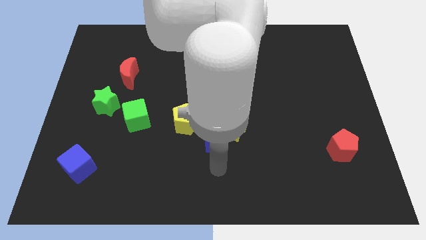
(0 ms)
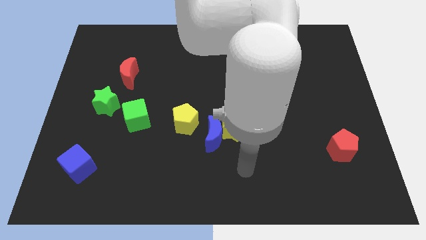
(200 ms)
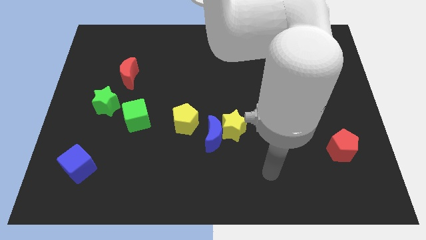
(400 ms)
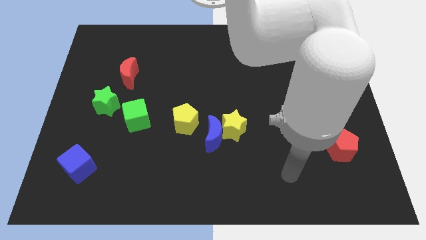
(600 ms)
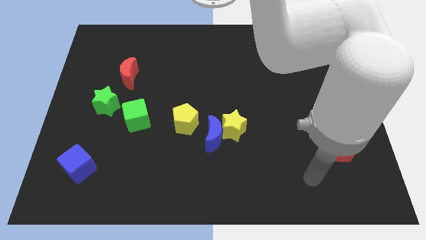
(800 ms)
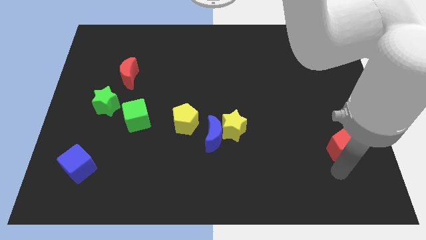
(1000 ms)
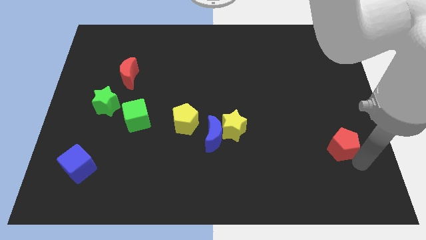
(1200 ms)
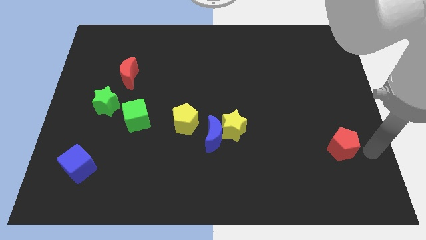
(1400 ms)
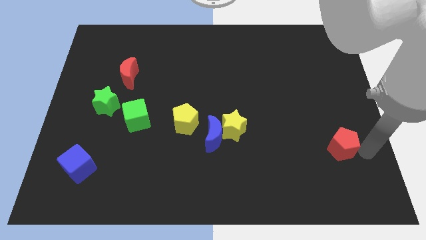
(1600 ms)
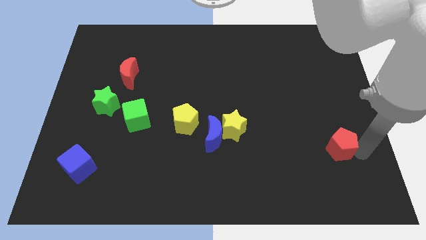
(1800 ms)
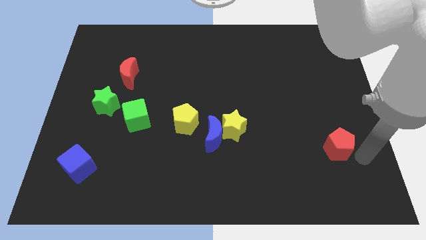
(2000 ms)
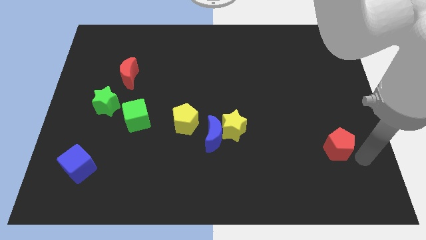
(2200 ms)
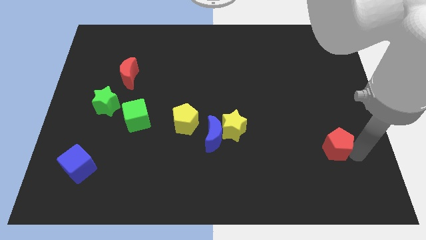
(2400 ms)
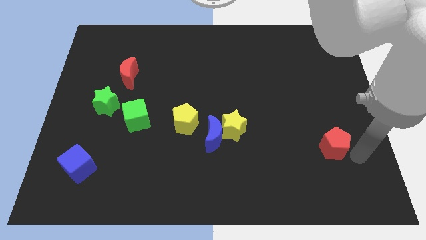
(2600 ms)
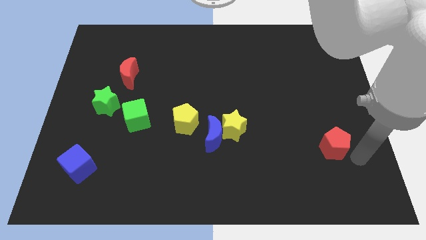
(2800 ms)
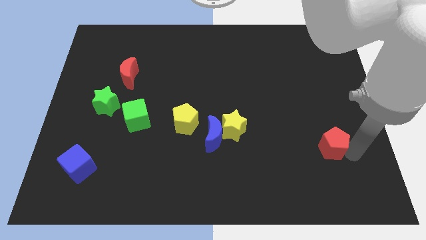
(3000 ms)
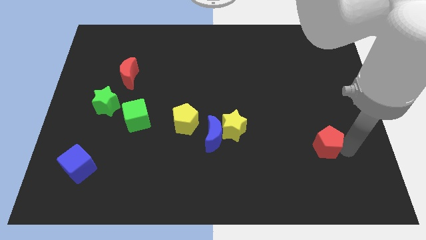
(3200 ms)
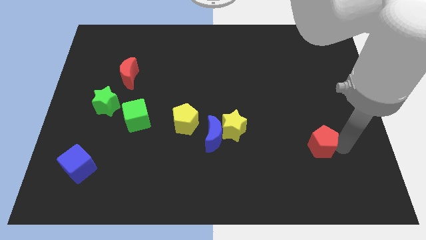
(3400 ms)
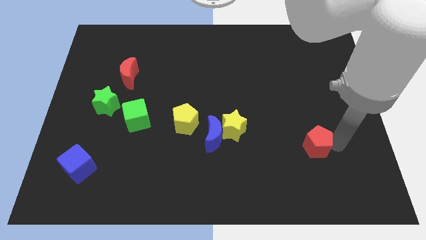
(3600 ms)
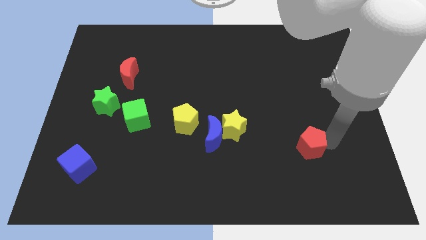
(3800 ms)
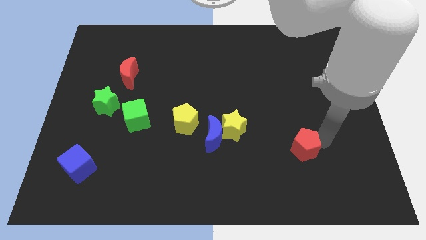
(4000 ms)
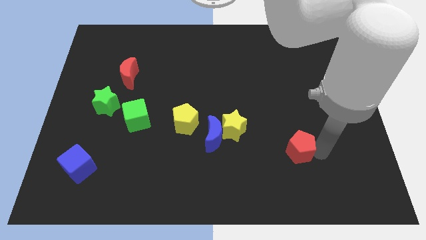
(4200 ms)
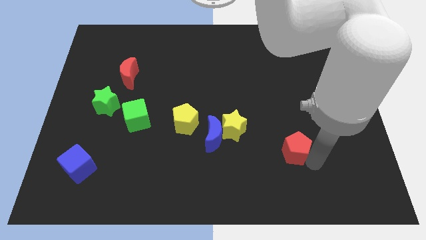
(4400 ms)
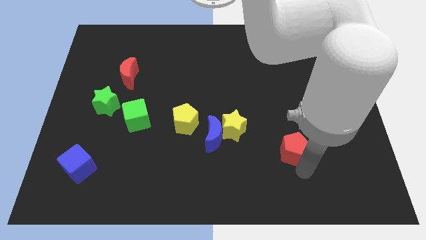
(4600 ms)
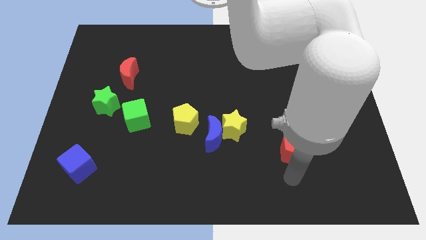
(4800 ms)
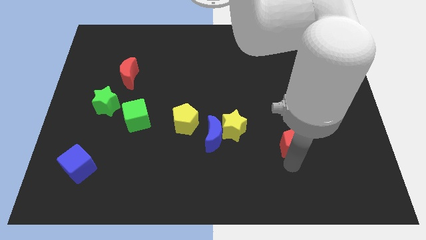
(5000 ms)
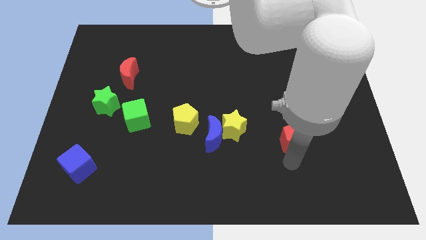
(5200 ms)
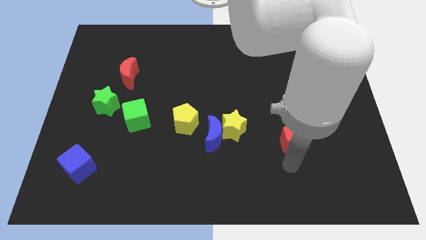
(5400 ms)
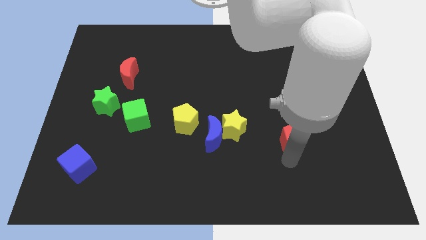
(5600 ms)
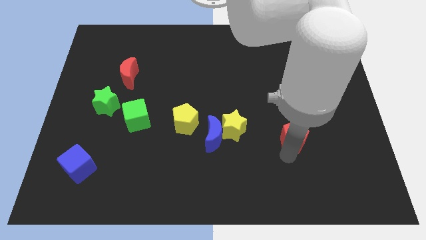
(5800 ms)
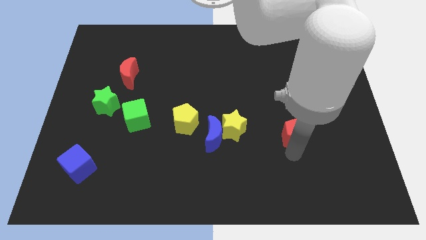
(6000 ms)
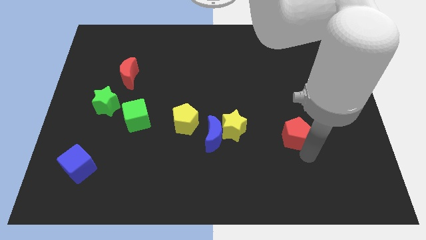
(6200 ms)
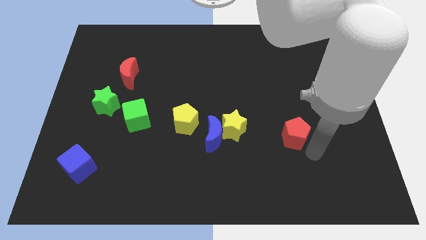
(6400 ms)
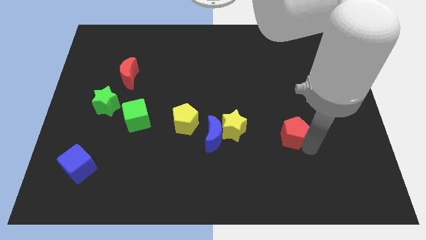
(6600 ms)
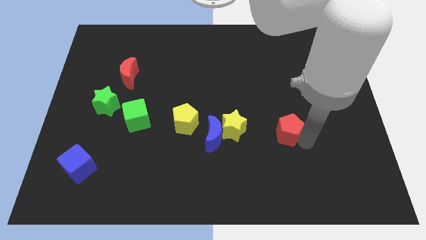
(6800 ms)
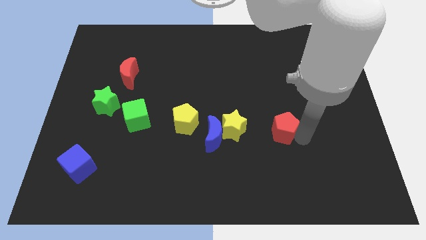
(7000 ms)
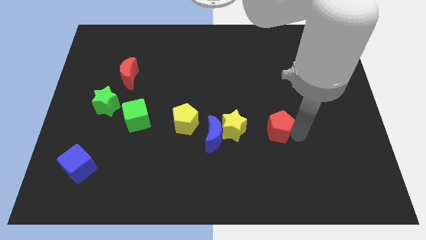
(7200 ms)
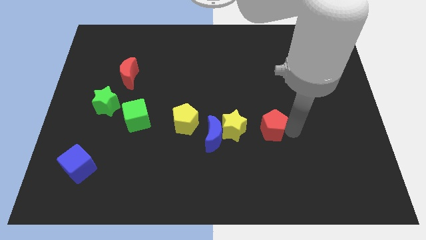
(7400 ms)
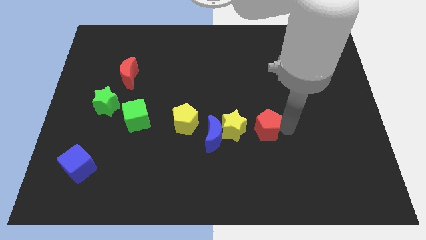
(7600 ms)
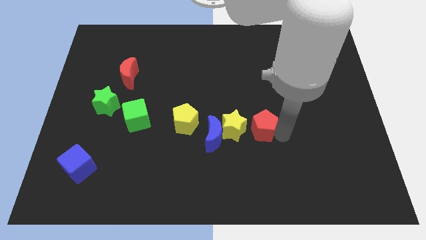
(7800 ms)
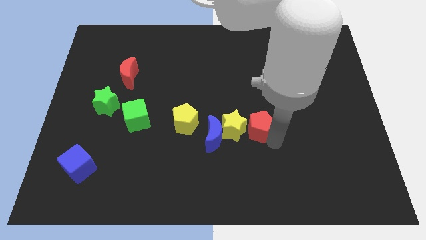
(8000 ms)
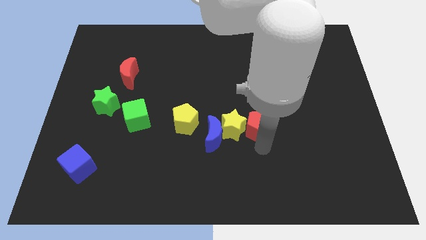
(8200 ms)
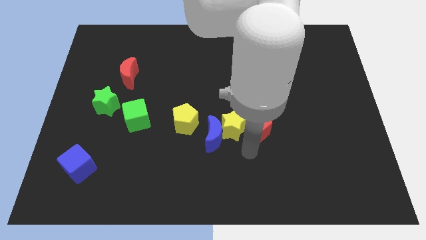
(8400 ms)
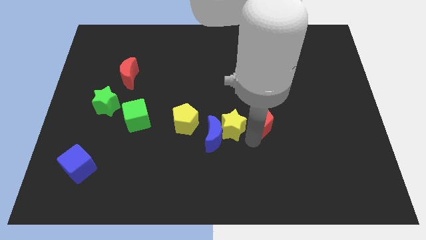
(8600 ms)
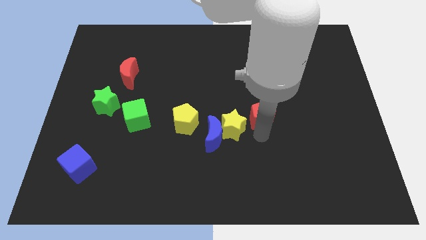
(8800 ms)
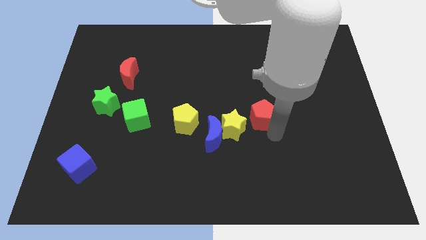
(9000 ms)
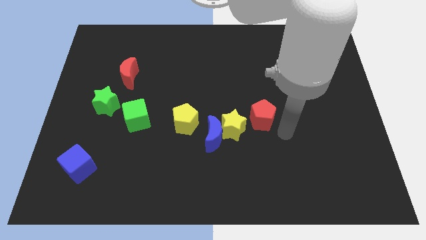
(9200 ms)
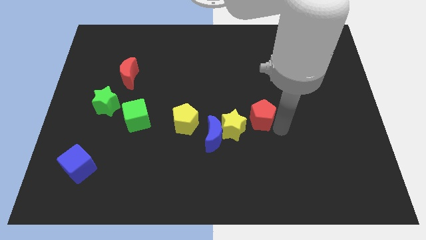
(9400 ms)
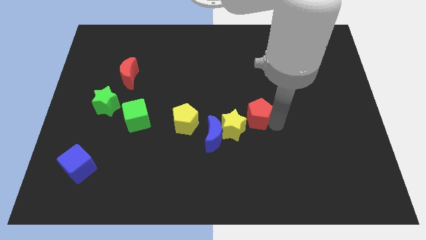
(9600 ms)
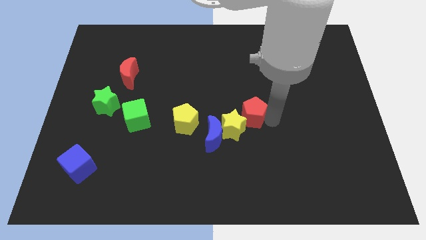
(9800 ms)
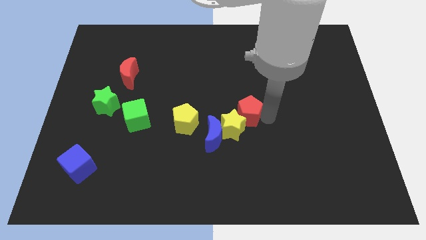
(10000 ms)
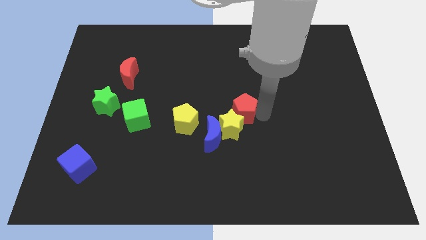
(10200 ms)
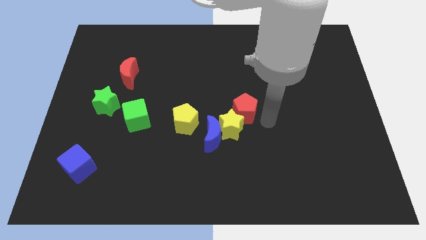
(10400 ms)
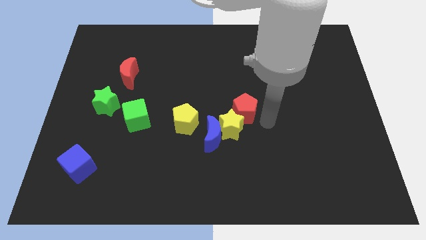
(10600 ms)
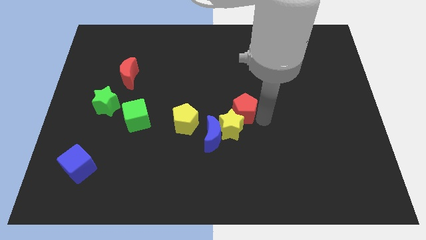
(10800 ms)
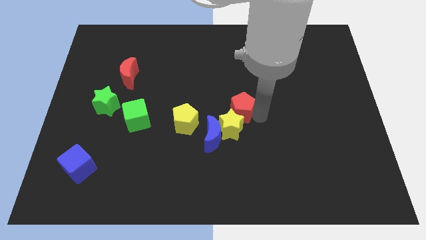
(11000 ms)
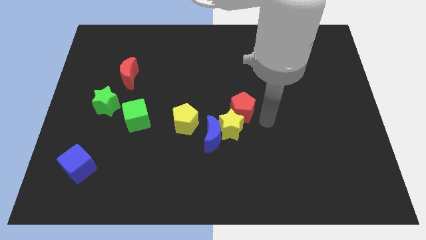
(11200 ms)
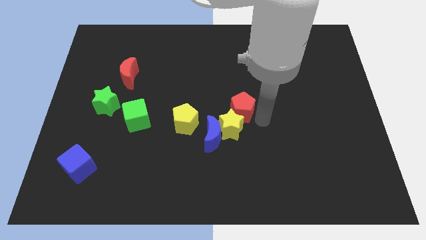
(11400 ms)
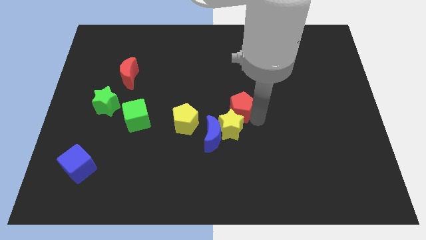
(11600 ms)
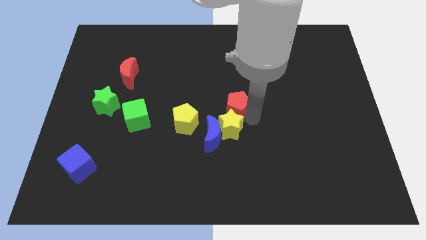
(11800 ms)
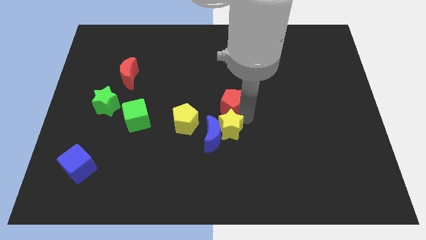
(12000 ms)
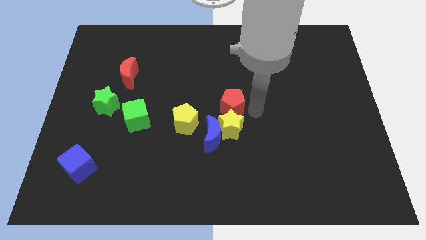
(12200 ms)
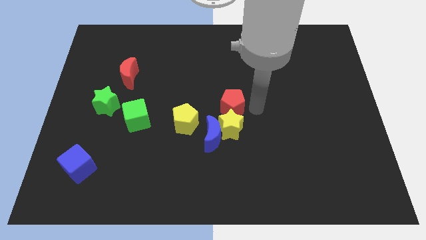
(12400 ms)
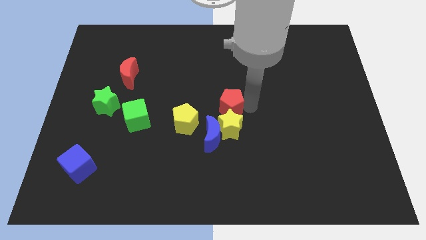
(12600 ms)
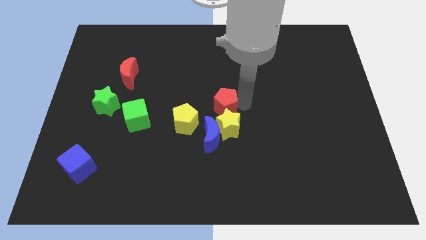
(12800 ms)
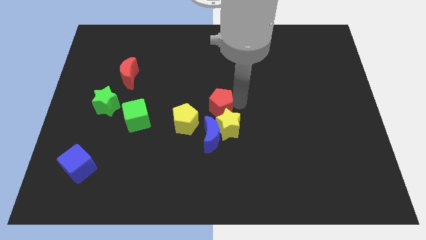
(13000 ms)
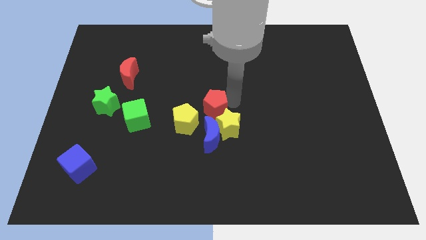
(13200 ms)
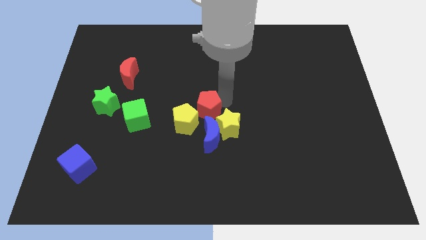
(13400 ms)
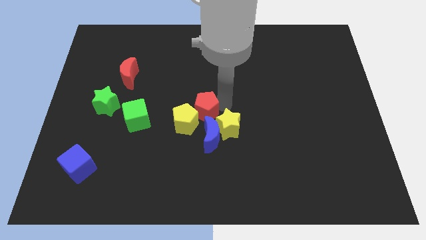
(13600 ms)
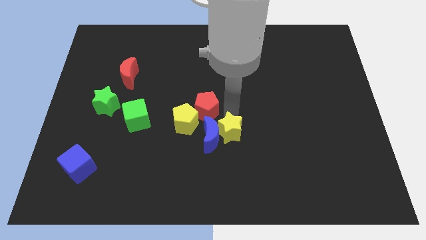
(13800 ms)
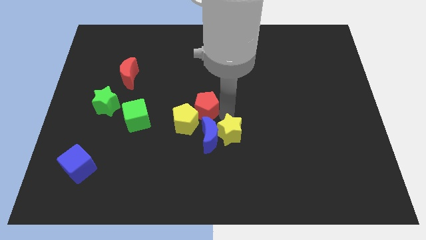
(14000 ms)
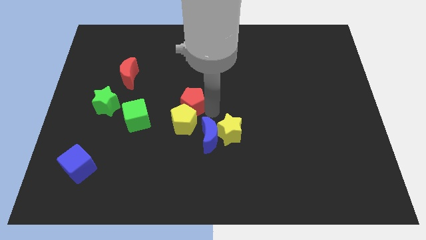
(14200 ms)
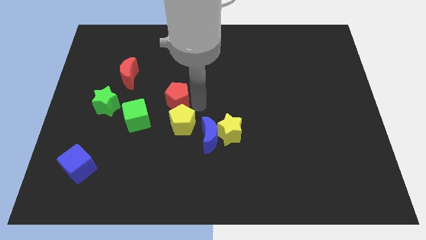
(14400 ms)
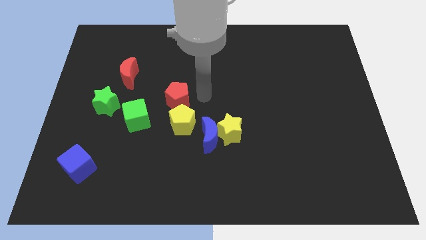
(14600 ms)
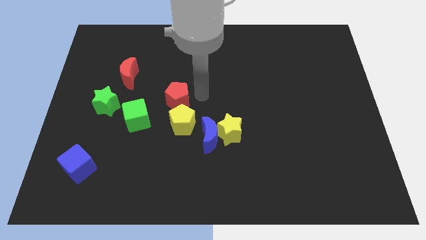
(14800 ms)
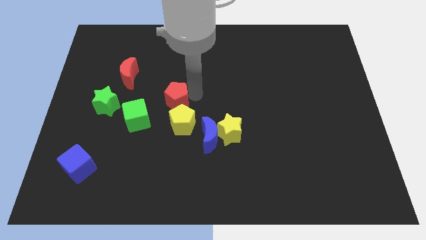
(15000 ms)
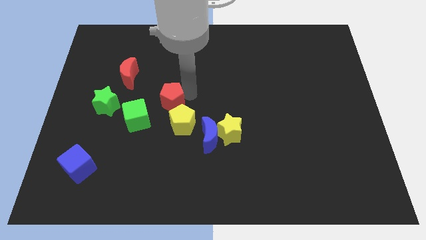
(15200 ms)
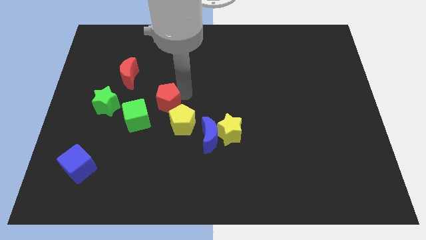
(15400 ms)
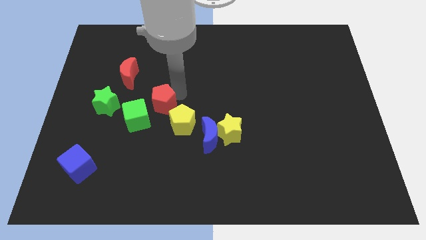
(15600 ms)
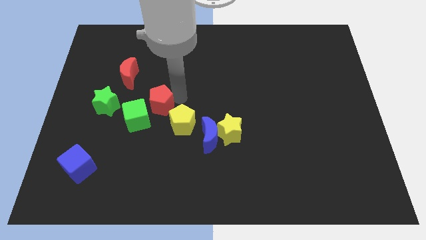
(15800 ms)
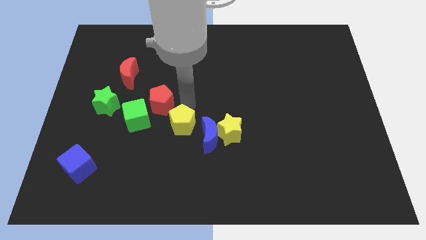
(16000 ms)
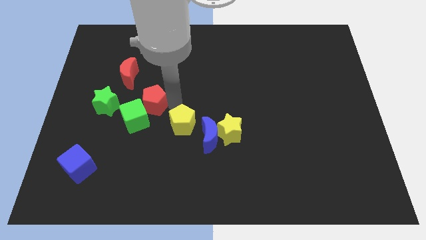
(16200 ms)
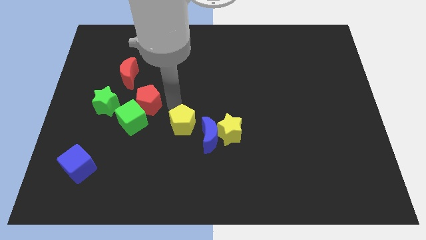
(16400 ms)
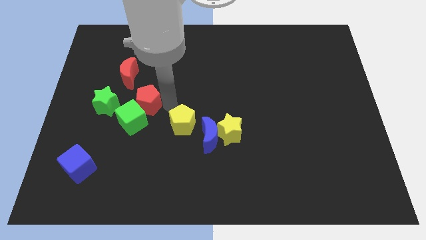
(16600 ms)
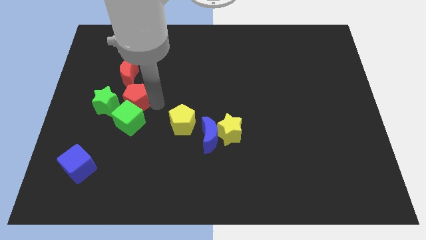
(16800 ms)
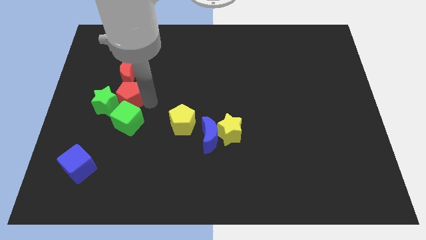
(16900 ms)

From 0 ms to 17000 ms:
slide the red pentagon close to the green star
